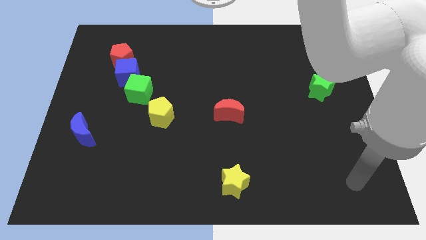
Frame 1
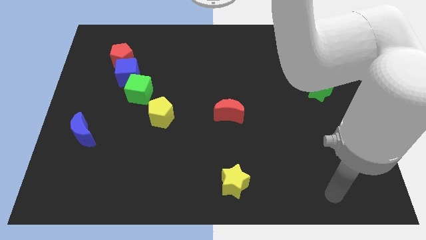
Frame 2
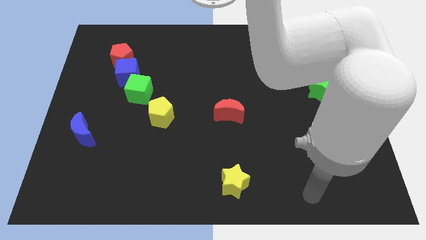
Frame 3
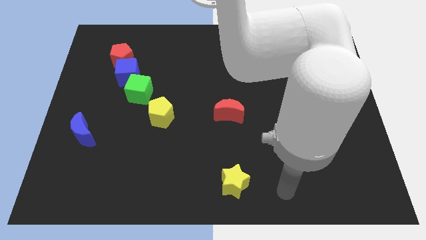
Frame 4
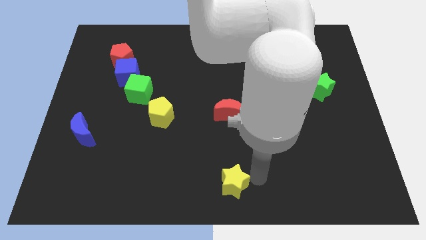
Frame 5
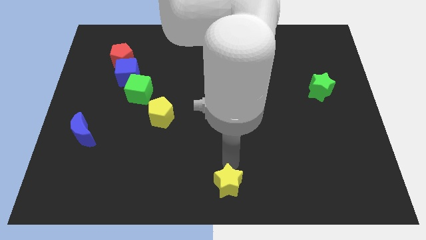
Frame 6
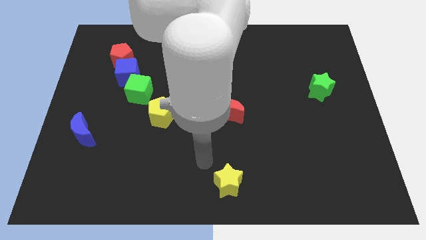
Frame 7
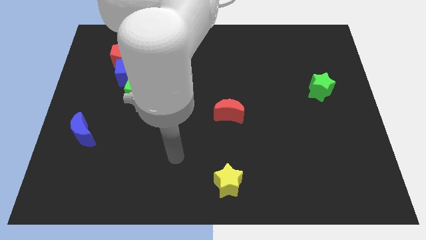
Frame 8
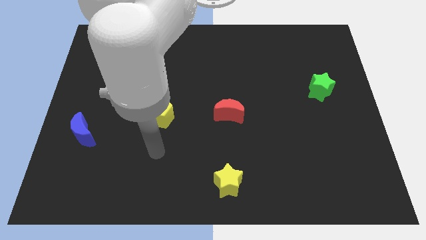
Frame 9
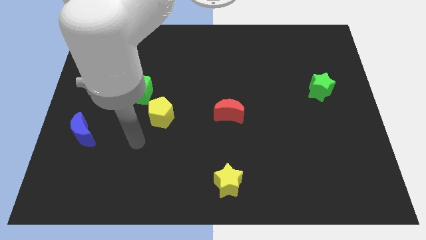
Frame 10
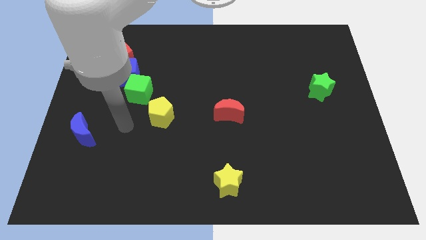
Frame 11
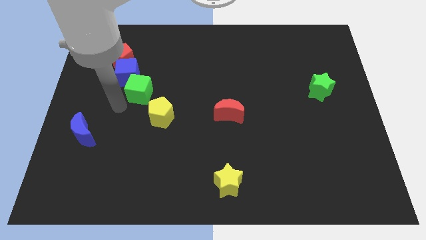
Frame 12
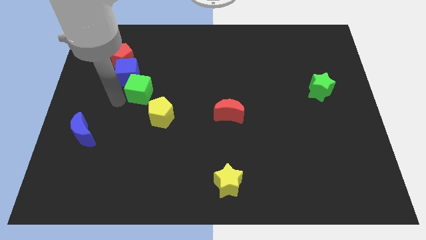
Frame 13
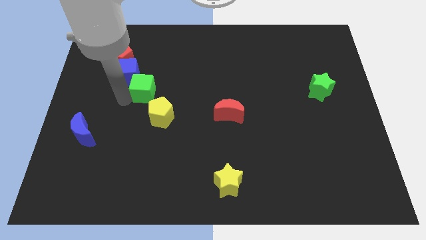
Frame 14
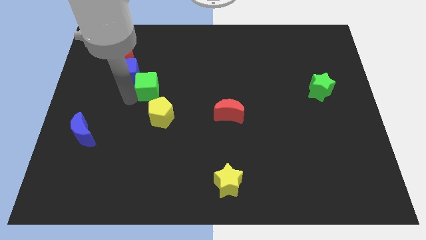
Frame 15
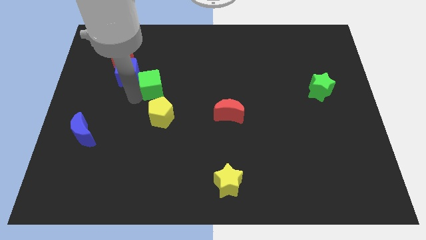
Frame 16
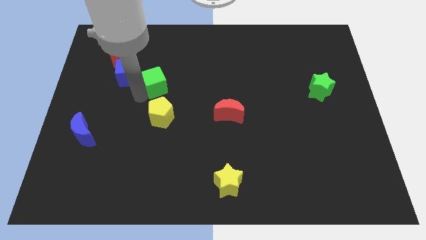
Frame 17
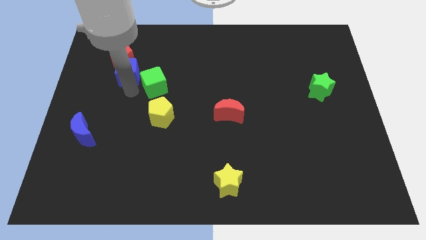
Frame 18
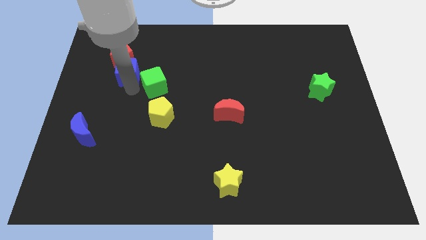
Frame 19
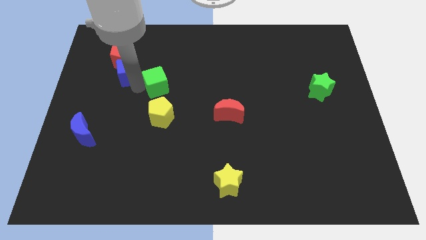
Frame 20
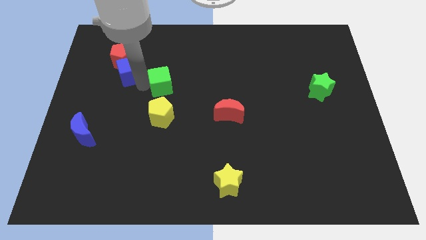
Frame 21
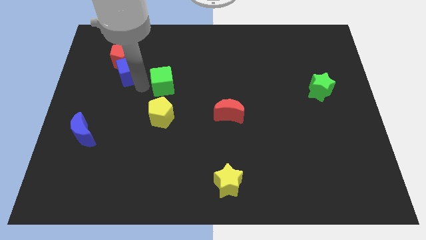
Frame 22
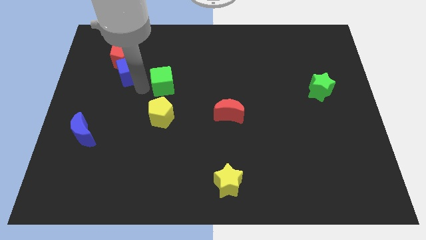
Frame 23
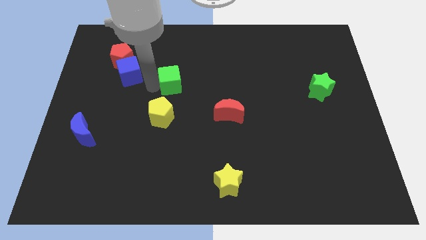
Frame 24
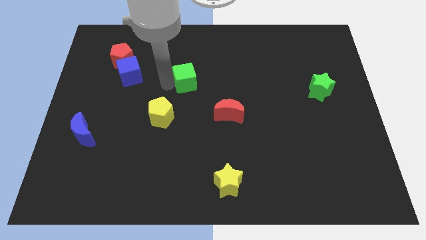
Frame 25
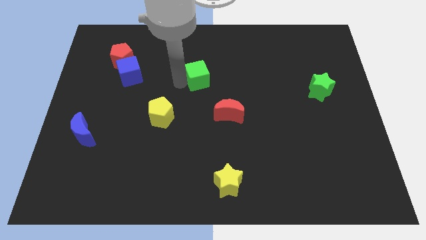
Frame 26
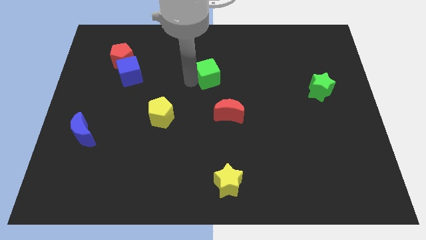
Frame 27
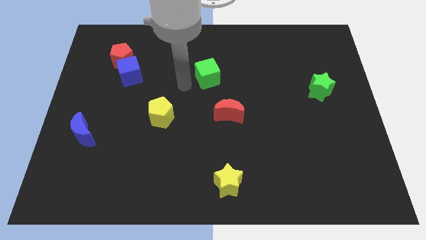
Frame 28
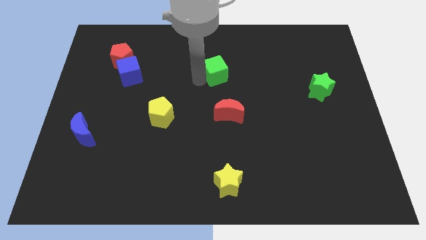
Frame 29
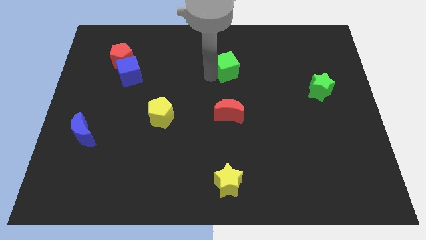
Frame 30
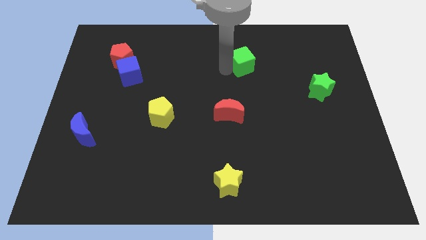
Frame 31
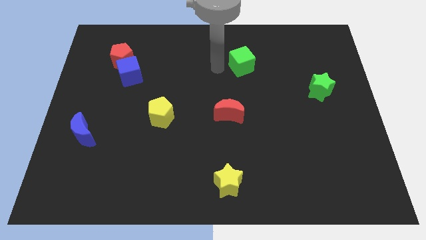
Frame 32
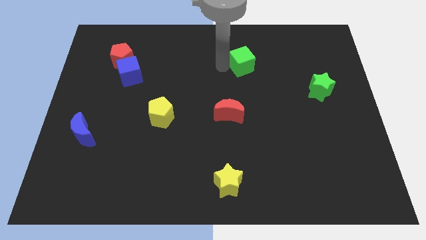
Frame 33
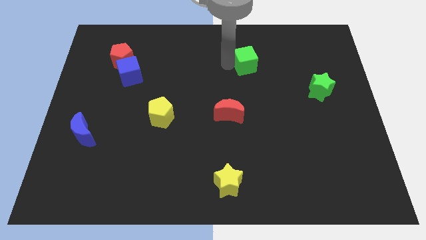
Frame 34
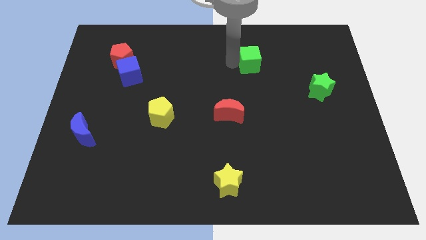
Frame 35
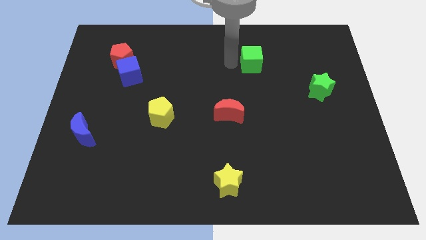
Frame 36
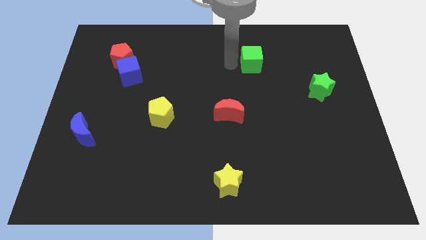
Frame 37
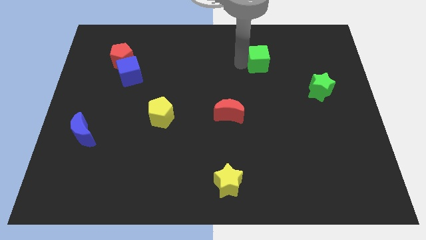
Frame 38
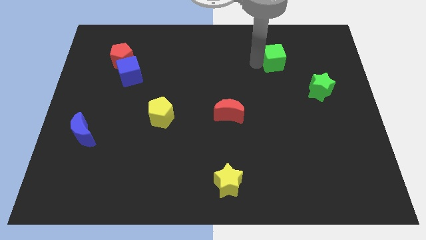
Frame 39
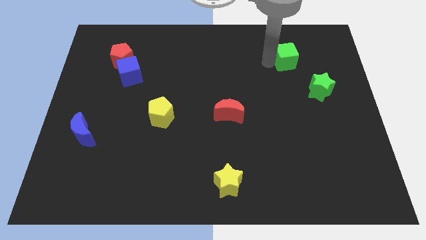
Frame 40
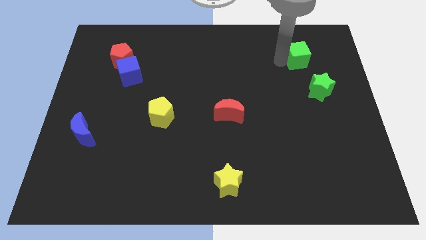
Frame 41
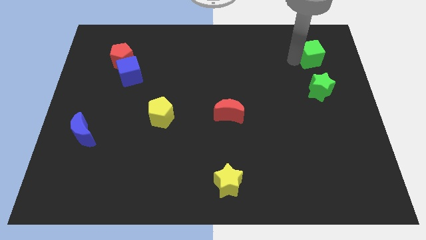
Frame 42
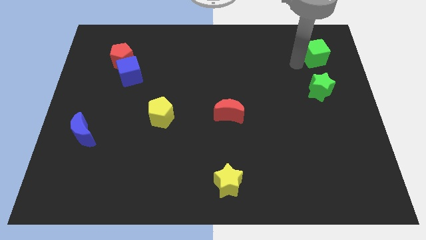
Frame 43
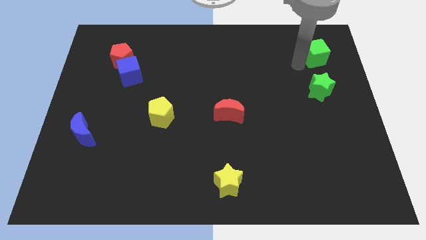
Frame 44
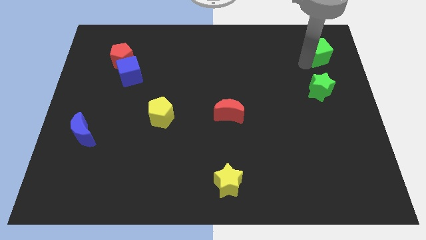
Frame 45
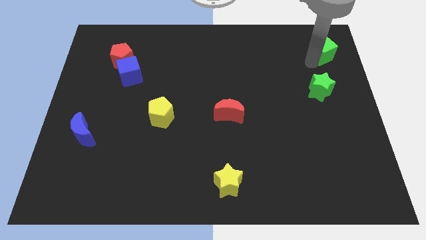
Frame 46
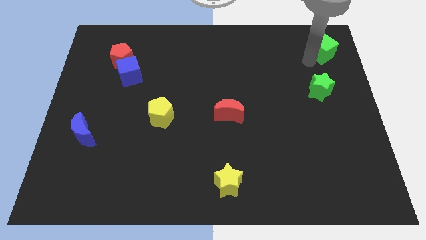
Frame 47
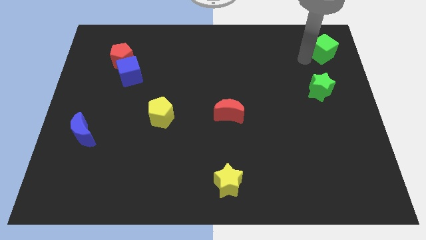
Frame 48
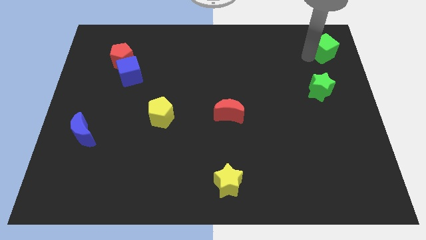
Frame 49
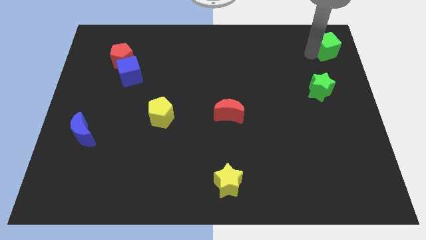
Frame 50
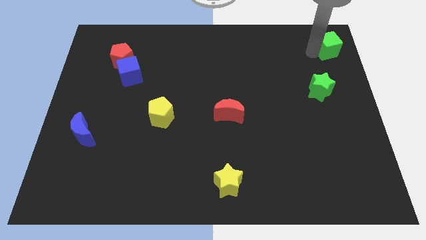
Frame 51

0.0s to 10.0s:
push the green cube to the top right of the board

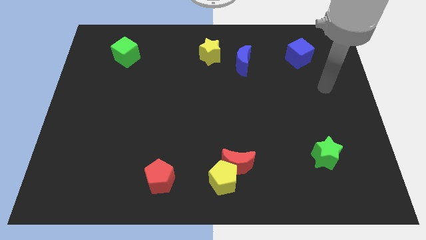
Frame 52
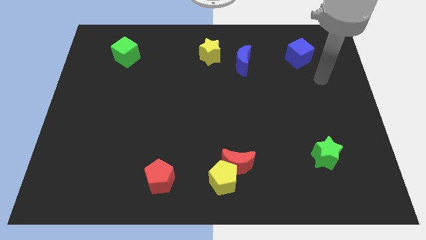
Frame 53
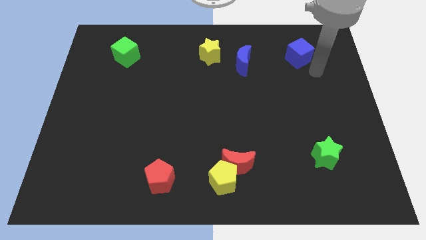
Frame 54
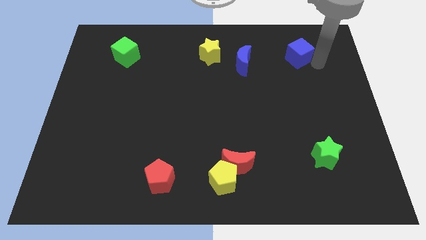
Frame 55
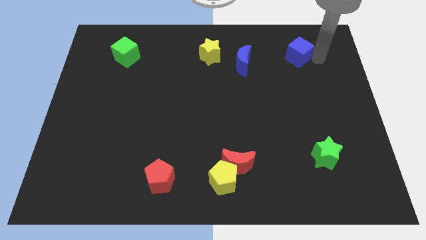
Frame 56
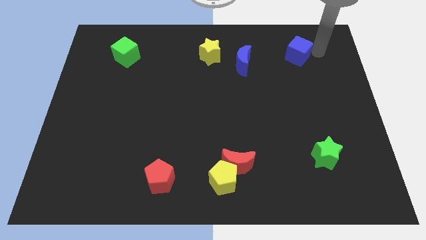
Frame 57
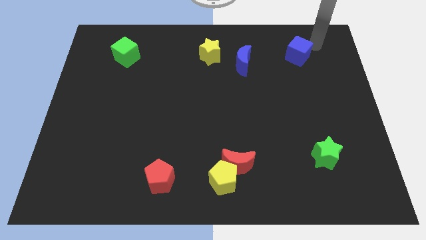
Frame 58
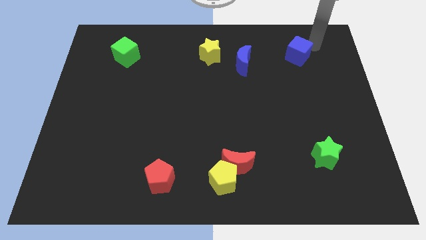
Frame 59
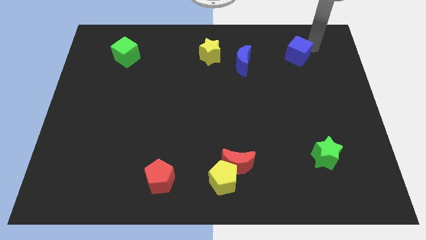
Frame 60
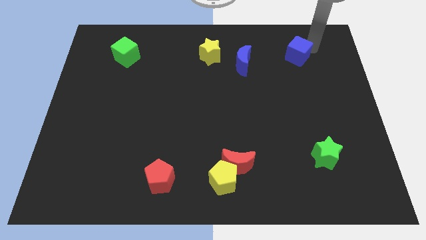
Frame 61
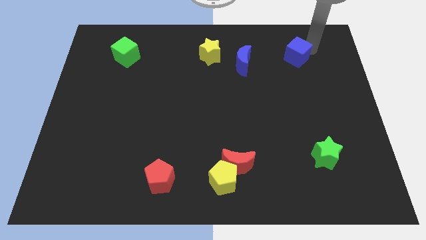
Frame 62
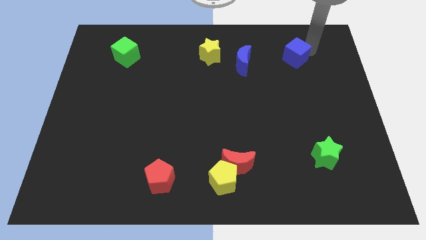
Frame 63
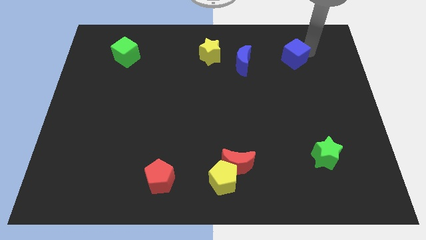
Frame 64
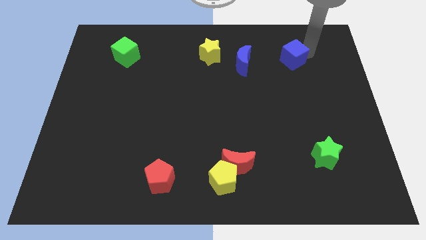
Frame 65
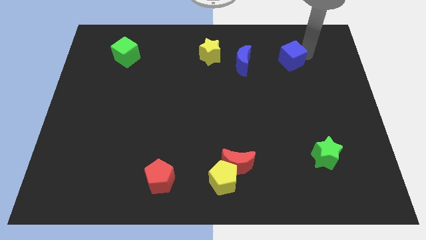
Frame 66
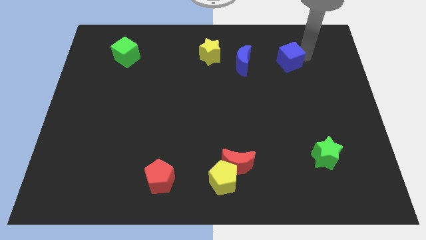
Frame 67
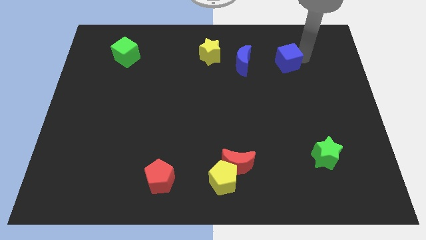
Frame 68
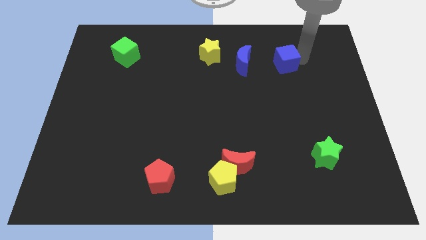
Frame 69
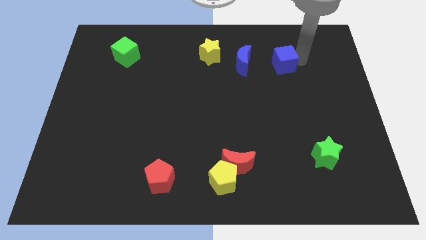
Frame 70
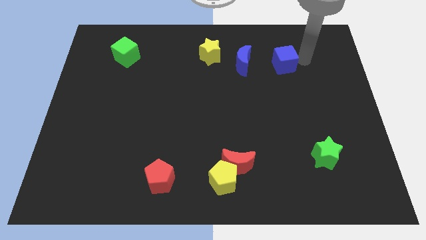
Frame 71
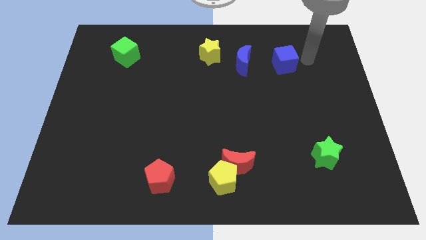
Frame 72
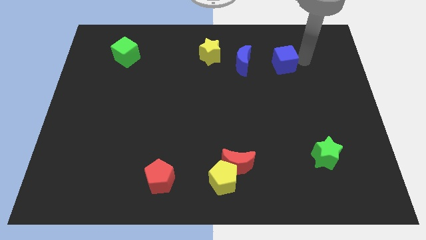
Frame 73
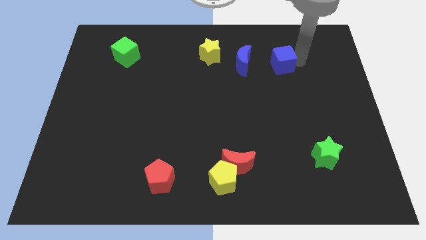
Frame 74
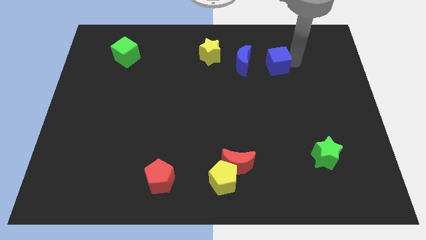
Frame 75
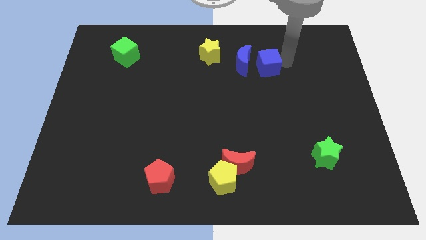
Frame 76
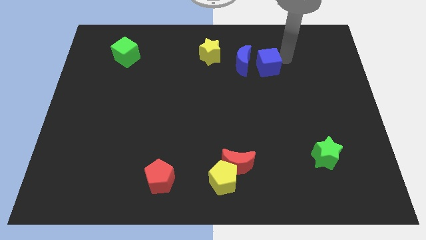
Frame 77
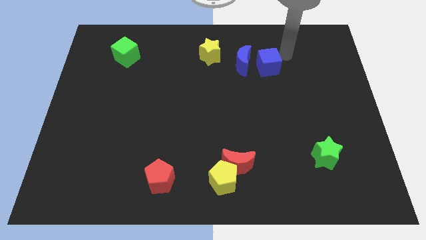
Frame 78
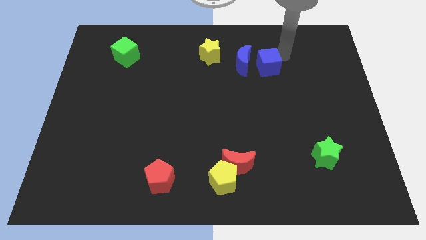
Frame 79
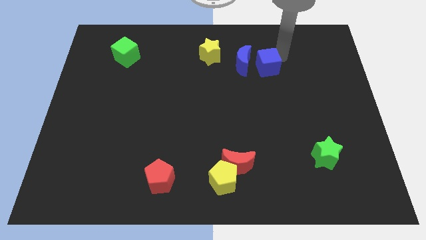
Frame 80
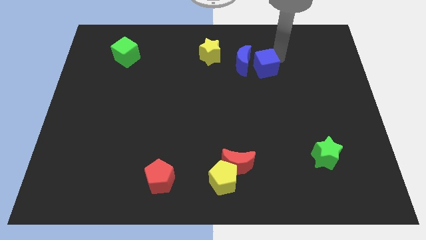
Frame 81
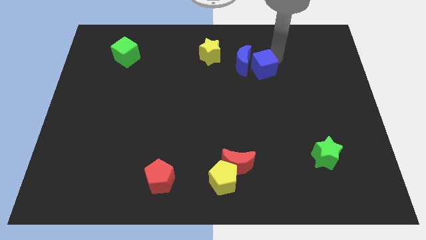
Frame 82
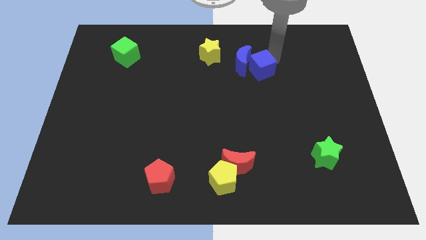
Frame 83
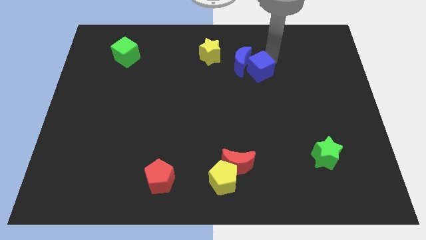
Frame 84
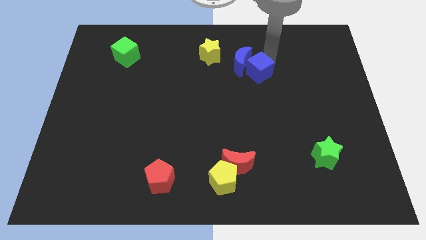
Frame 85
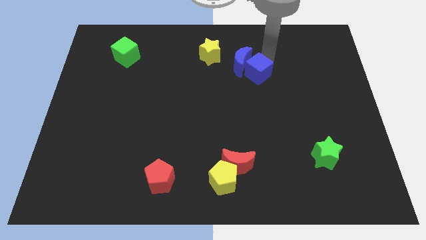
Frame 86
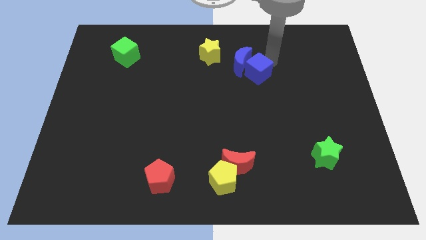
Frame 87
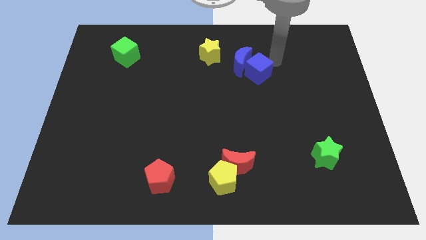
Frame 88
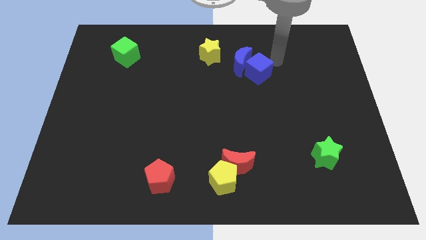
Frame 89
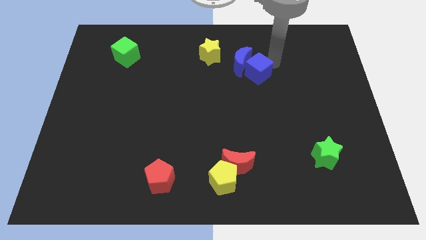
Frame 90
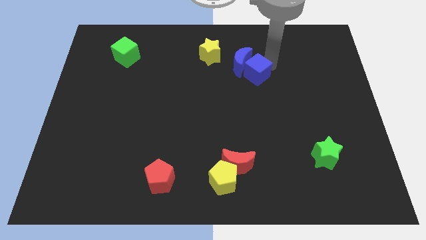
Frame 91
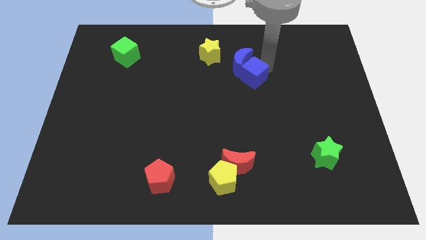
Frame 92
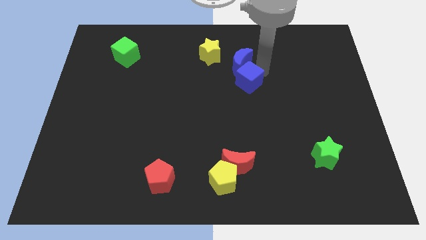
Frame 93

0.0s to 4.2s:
push the blue cube to the middle of the board
